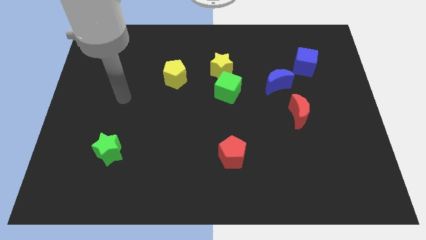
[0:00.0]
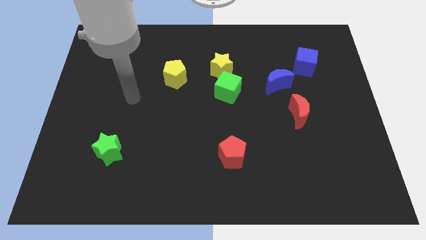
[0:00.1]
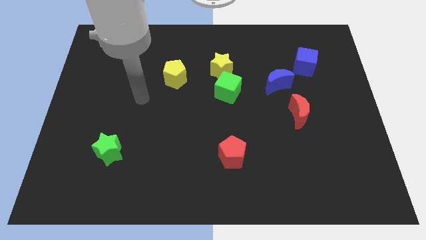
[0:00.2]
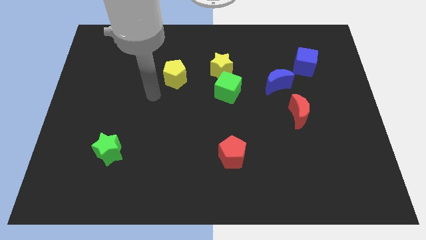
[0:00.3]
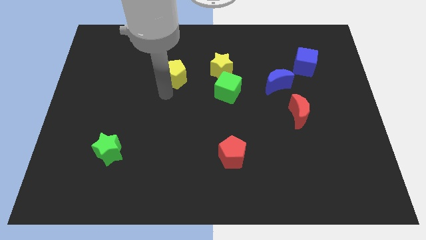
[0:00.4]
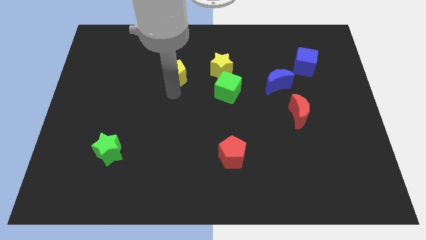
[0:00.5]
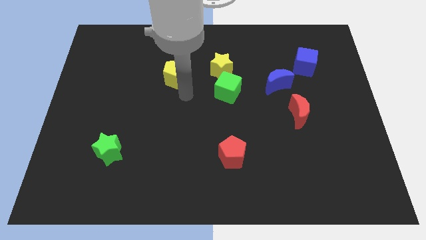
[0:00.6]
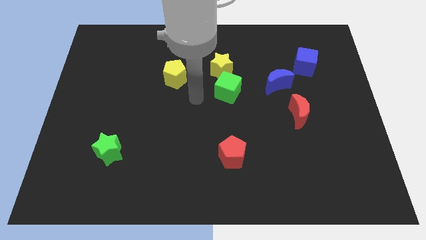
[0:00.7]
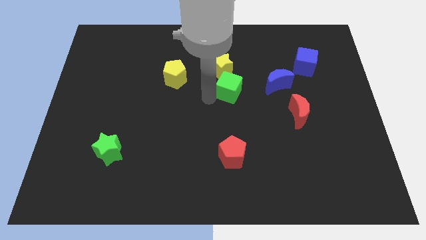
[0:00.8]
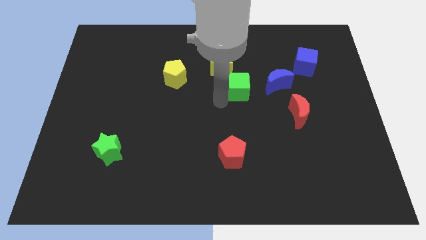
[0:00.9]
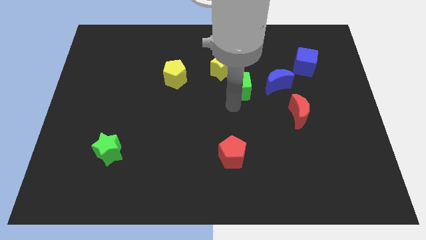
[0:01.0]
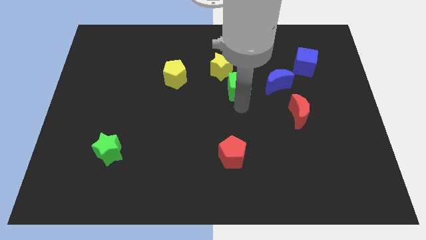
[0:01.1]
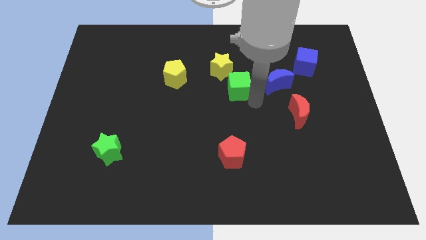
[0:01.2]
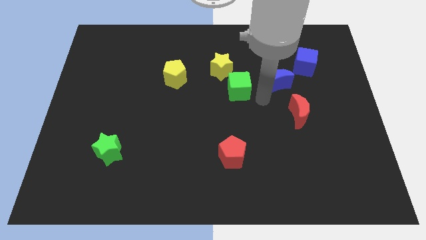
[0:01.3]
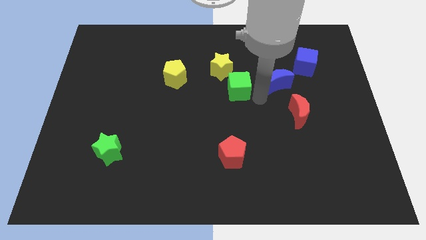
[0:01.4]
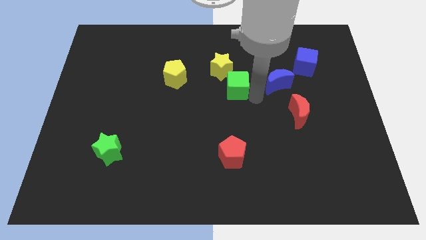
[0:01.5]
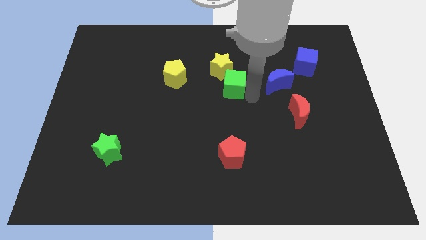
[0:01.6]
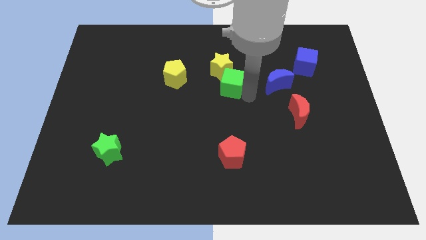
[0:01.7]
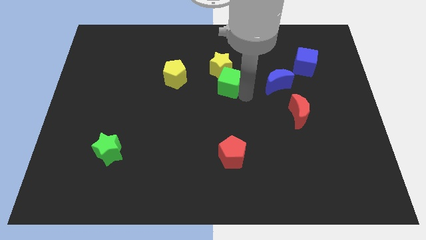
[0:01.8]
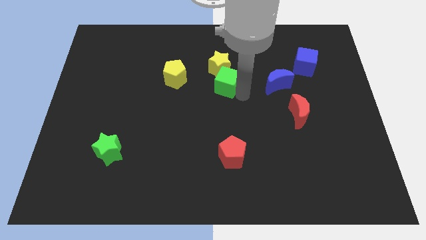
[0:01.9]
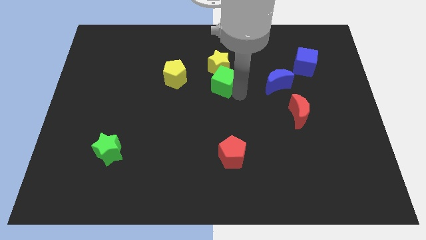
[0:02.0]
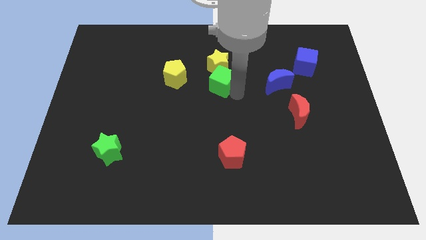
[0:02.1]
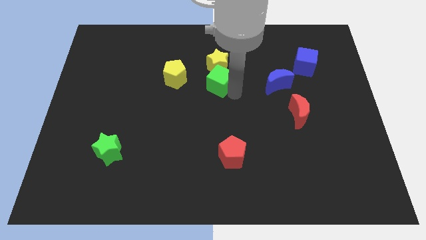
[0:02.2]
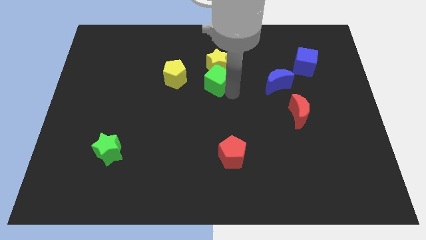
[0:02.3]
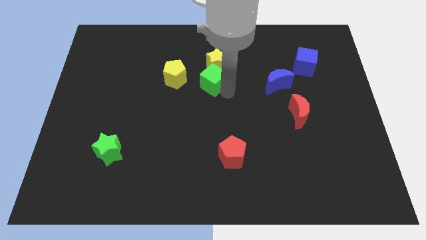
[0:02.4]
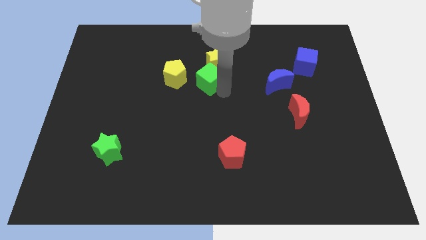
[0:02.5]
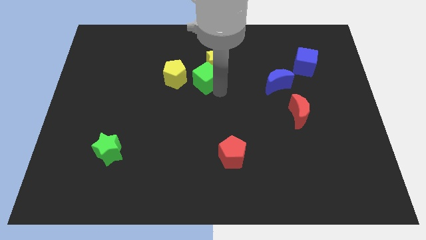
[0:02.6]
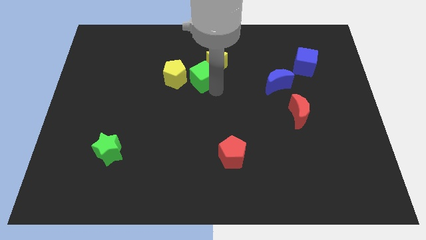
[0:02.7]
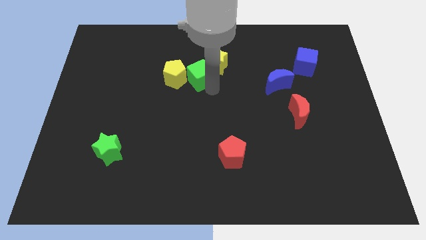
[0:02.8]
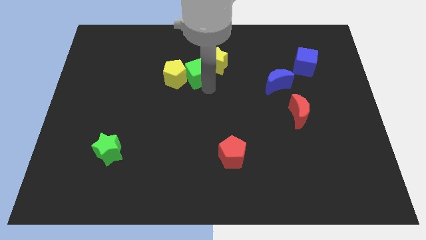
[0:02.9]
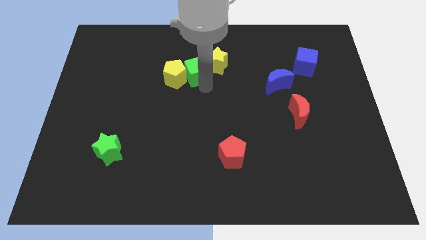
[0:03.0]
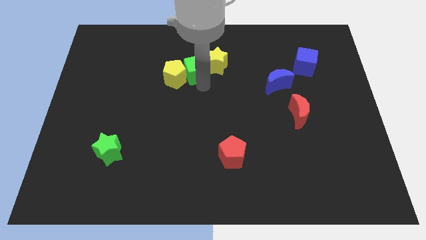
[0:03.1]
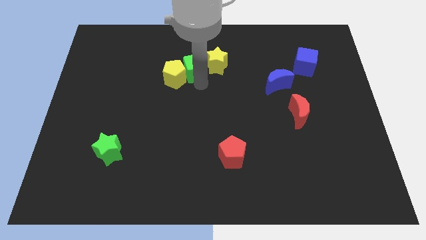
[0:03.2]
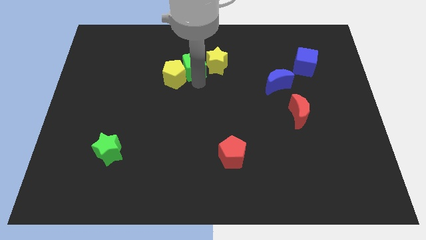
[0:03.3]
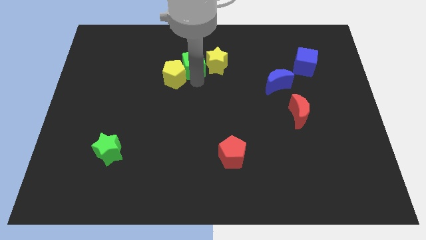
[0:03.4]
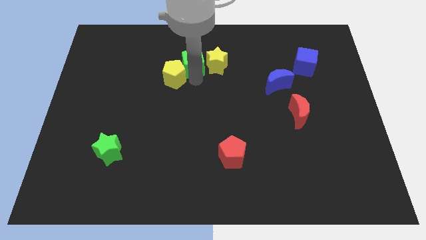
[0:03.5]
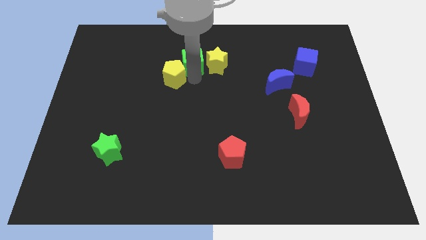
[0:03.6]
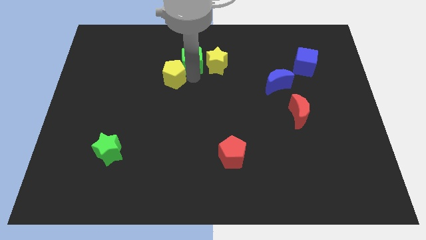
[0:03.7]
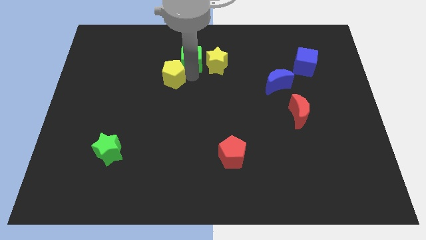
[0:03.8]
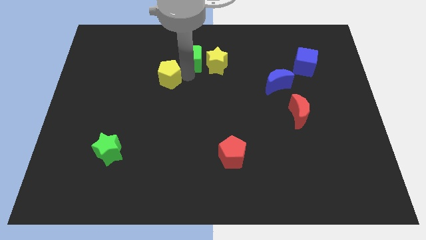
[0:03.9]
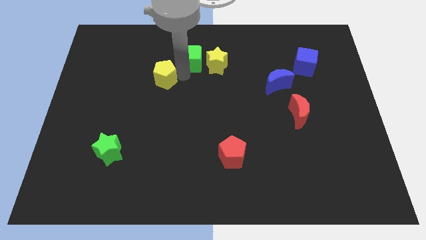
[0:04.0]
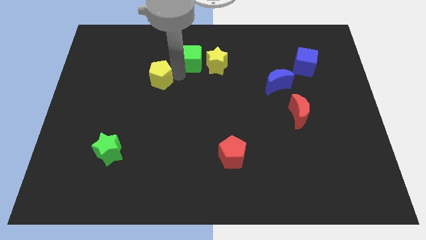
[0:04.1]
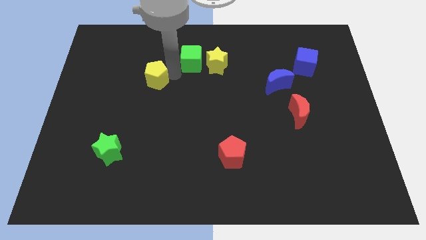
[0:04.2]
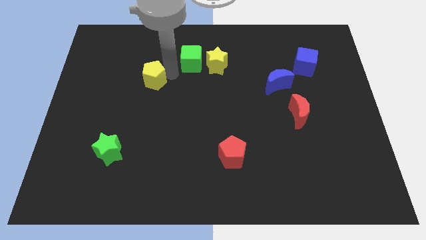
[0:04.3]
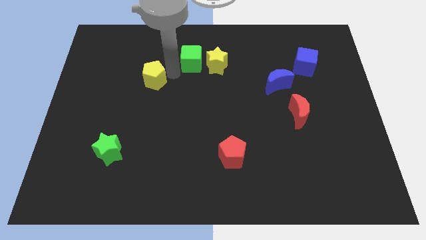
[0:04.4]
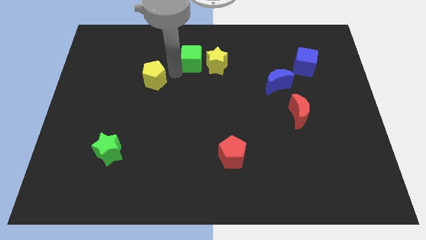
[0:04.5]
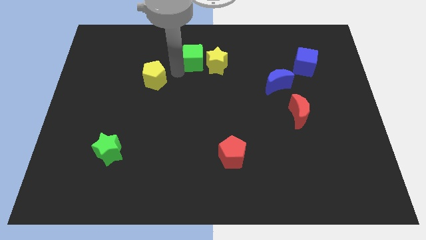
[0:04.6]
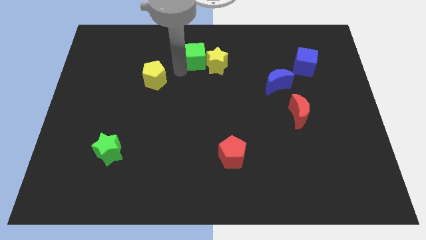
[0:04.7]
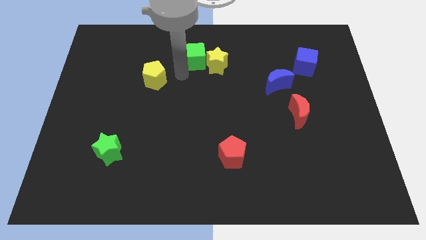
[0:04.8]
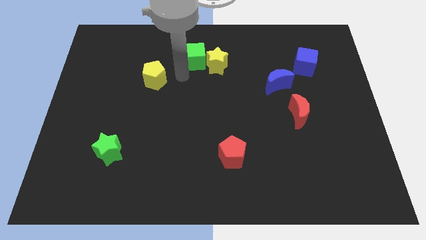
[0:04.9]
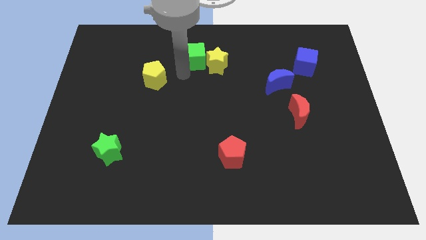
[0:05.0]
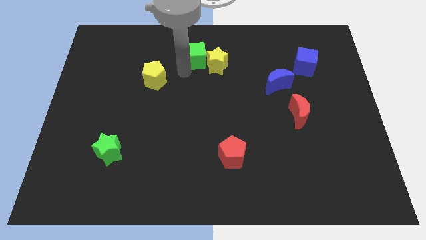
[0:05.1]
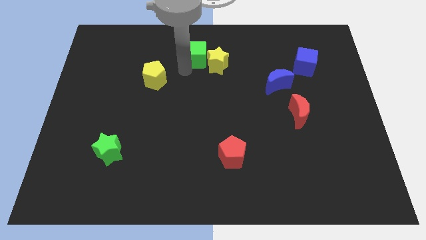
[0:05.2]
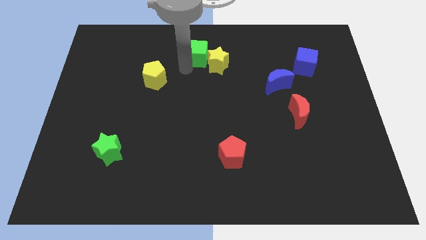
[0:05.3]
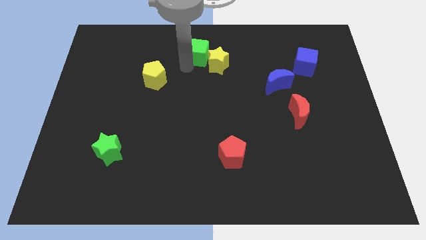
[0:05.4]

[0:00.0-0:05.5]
move the green cube to the top side
